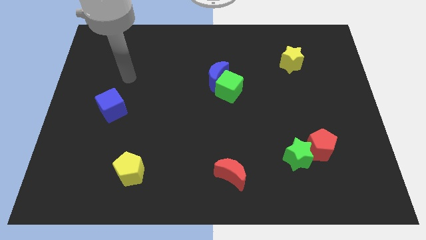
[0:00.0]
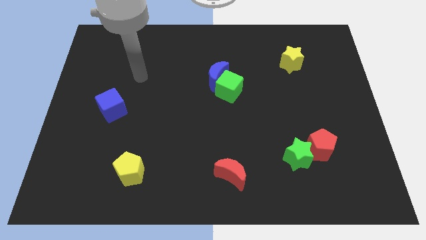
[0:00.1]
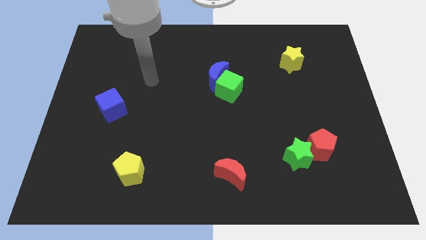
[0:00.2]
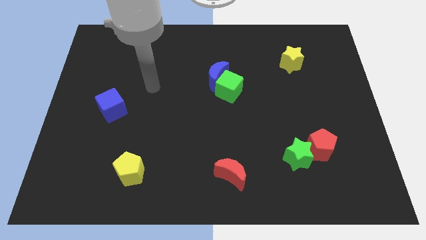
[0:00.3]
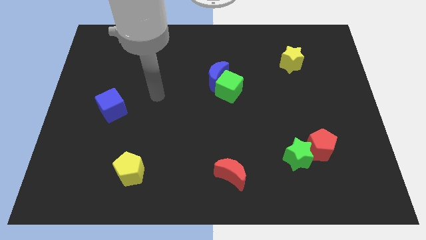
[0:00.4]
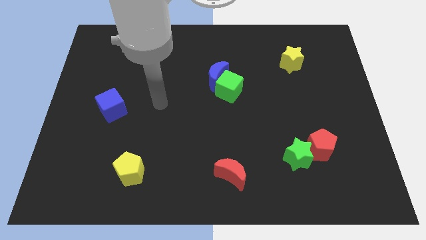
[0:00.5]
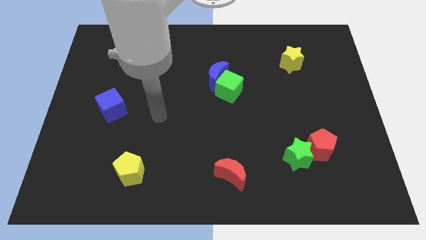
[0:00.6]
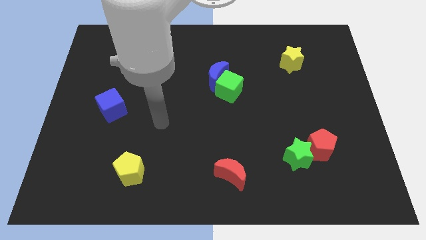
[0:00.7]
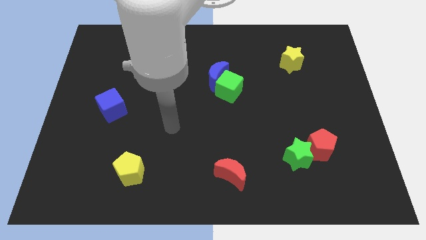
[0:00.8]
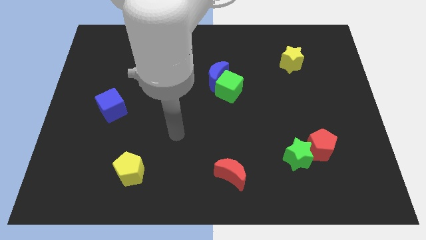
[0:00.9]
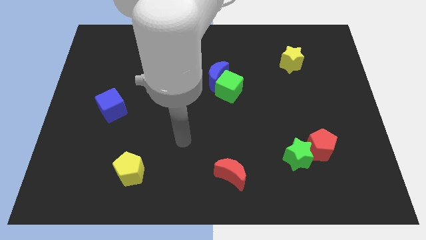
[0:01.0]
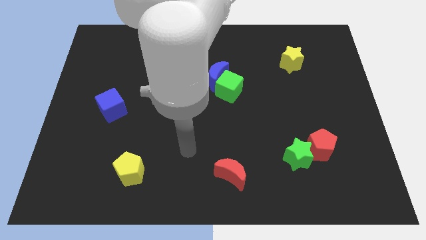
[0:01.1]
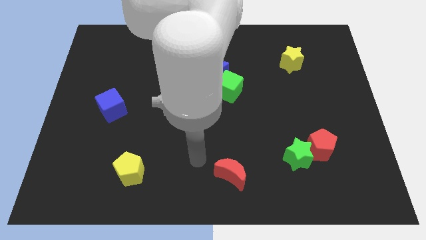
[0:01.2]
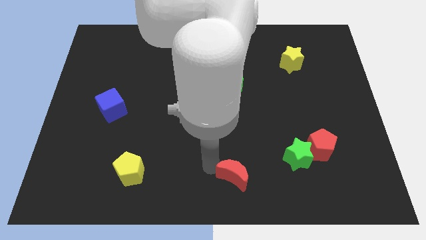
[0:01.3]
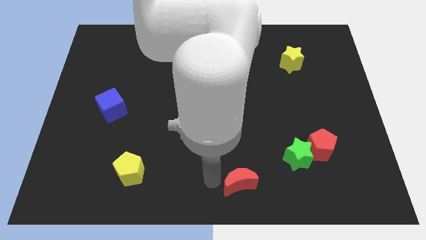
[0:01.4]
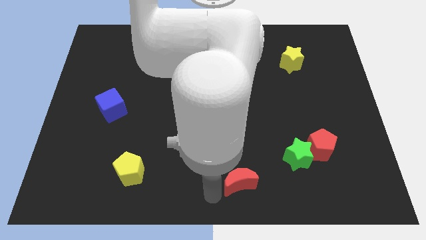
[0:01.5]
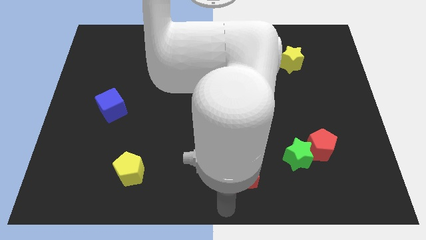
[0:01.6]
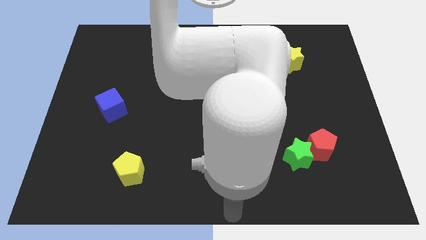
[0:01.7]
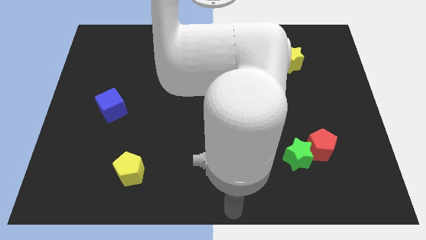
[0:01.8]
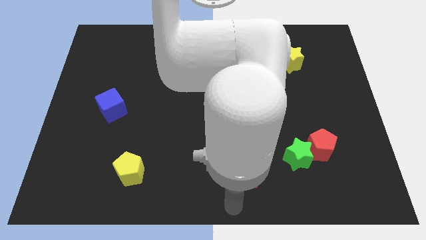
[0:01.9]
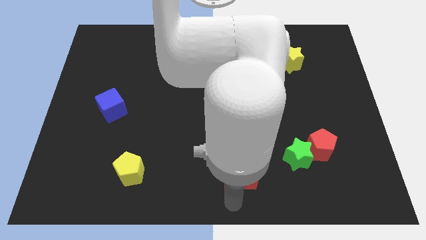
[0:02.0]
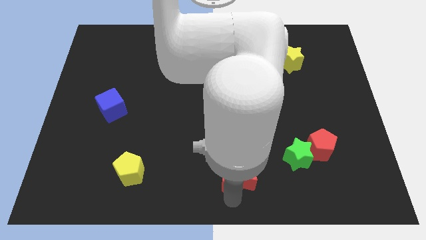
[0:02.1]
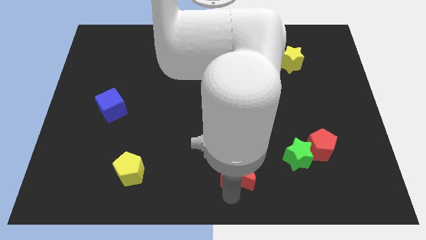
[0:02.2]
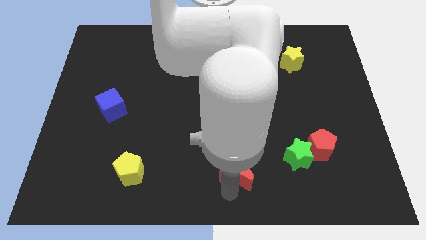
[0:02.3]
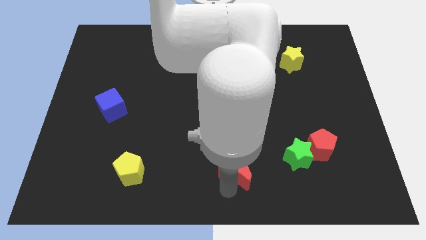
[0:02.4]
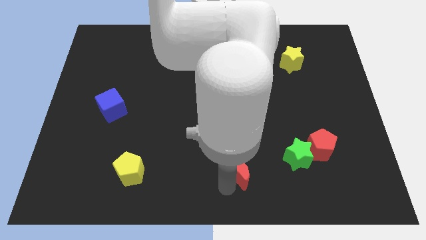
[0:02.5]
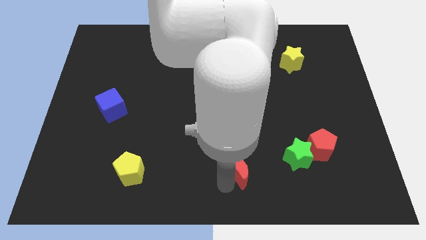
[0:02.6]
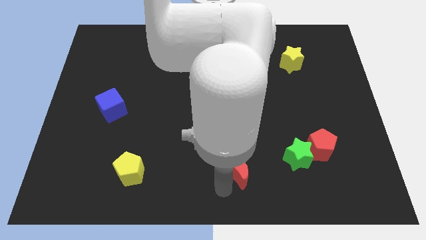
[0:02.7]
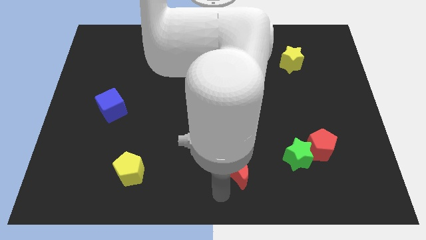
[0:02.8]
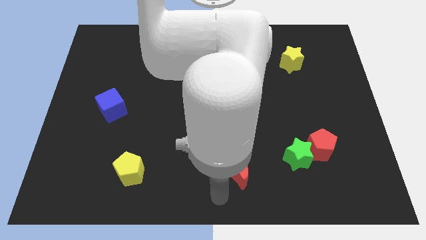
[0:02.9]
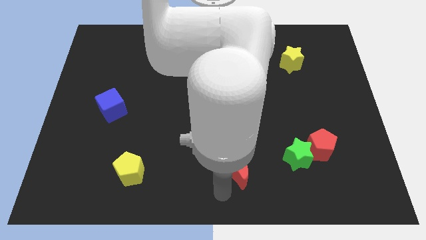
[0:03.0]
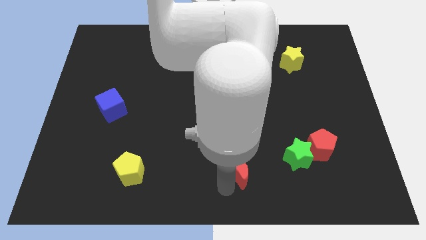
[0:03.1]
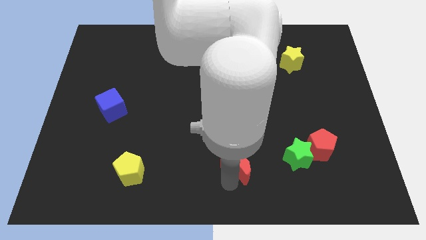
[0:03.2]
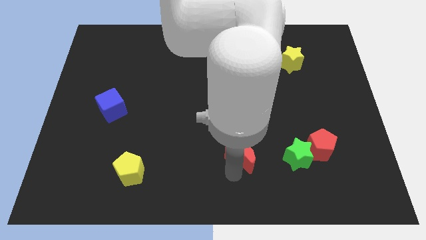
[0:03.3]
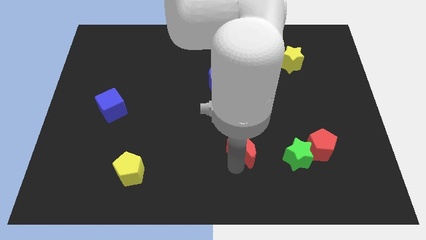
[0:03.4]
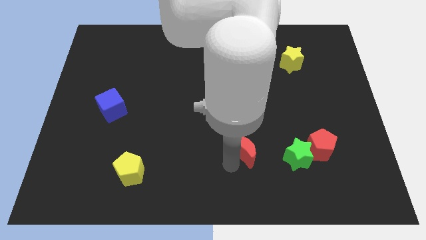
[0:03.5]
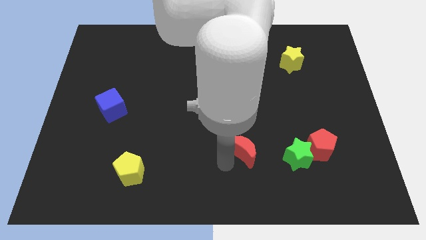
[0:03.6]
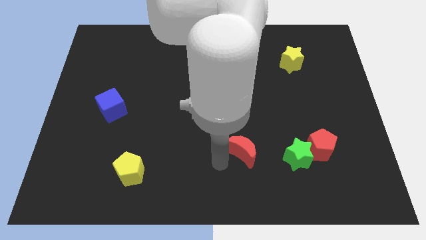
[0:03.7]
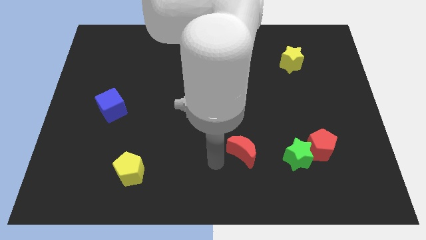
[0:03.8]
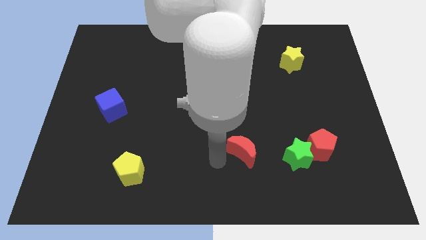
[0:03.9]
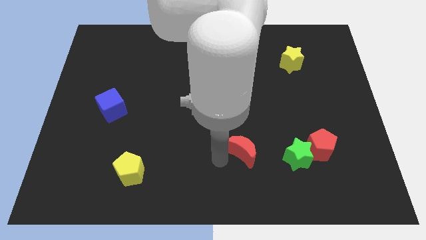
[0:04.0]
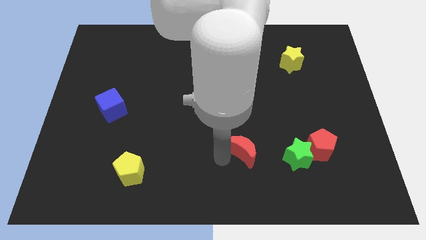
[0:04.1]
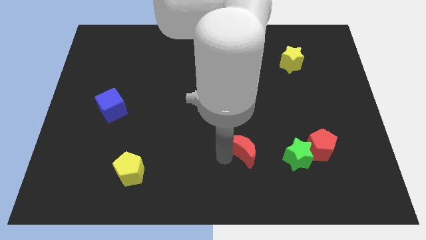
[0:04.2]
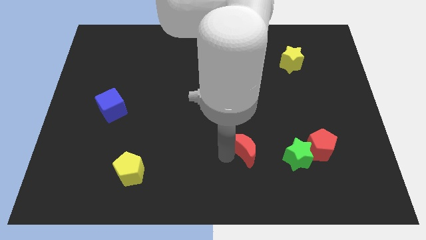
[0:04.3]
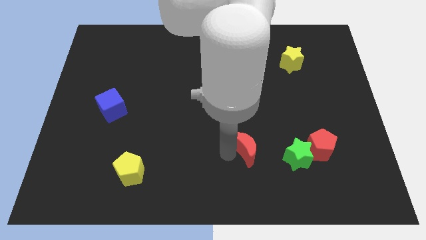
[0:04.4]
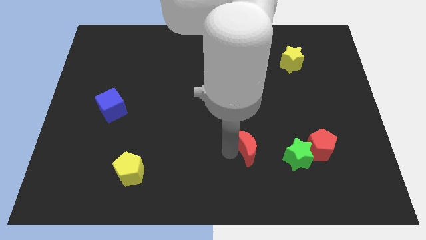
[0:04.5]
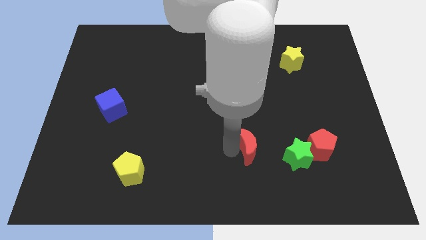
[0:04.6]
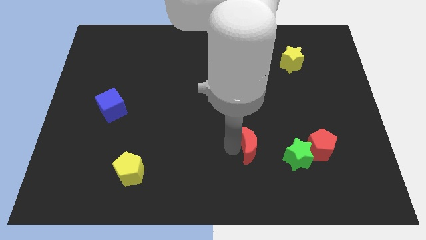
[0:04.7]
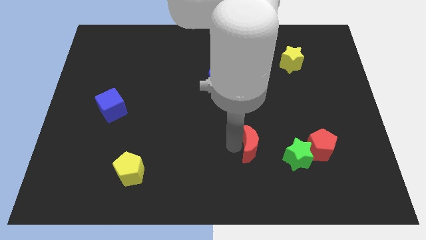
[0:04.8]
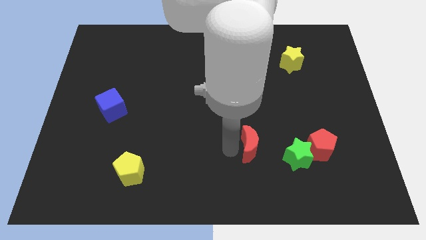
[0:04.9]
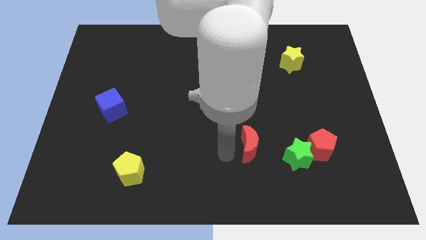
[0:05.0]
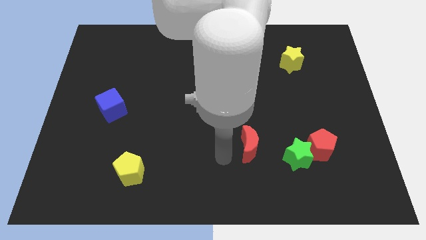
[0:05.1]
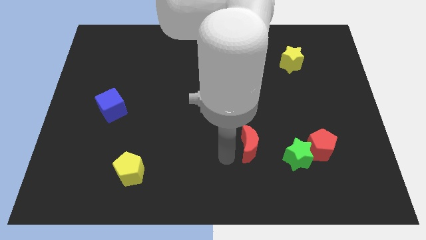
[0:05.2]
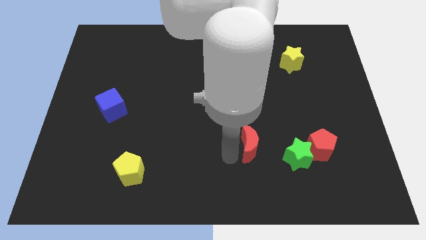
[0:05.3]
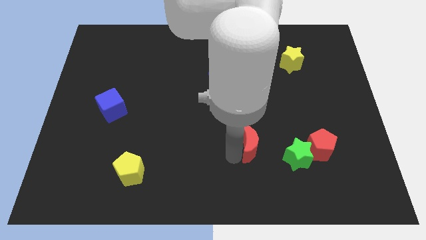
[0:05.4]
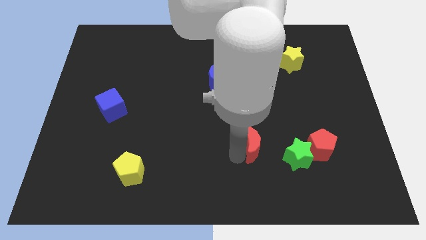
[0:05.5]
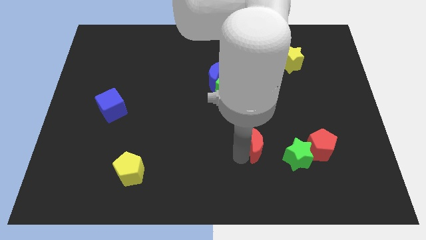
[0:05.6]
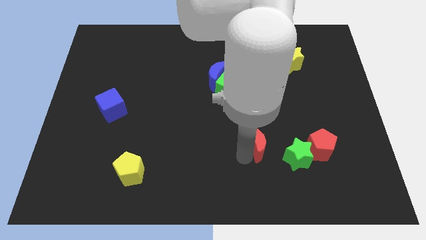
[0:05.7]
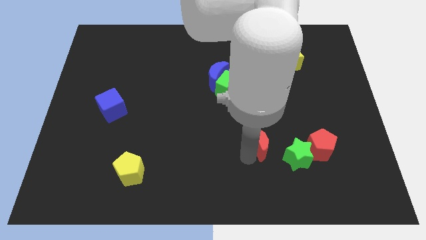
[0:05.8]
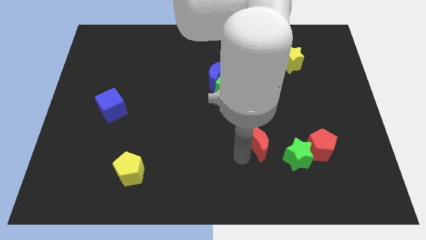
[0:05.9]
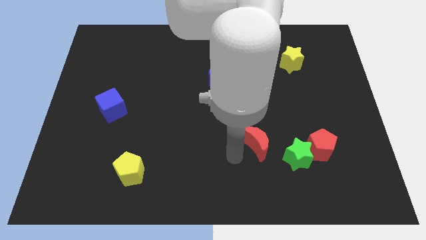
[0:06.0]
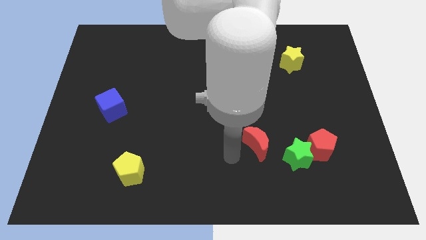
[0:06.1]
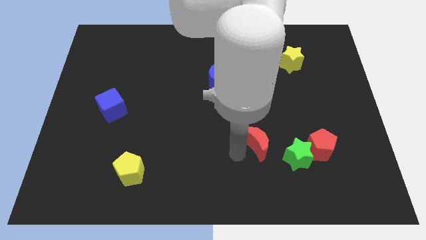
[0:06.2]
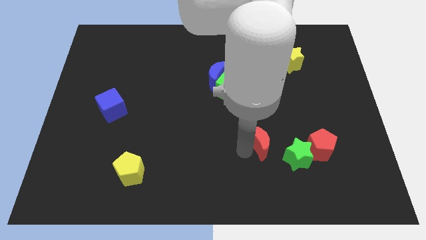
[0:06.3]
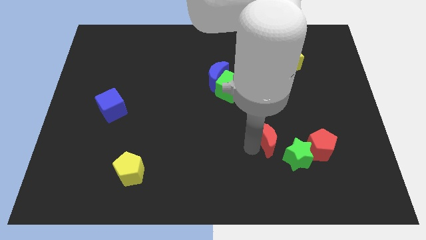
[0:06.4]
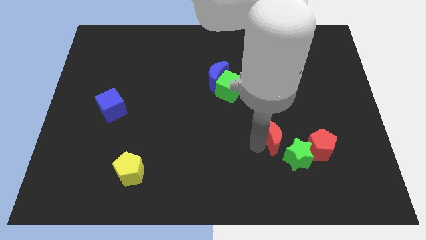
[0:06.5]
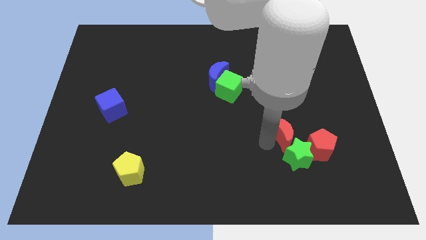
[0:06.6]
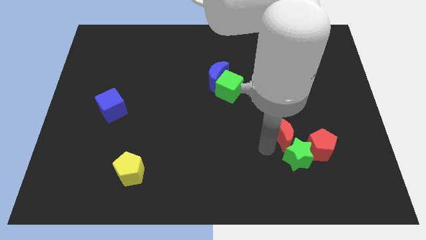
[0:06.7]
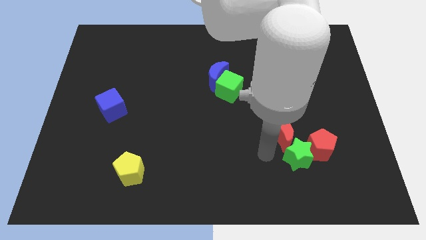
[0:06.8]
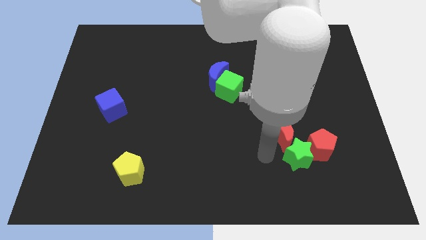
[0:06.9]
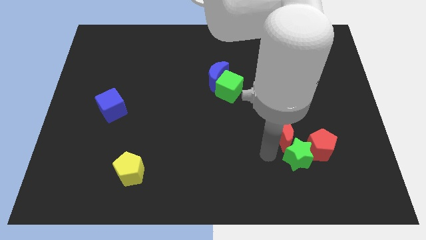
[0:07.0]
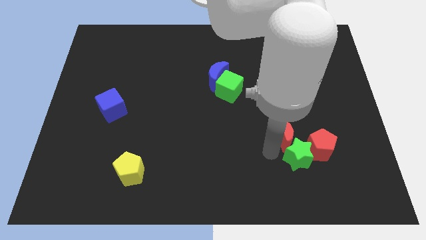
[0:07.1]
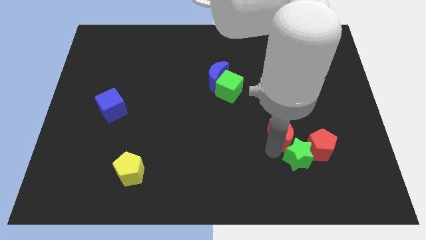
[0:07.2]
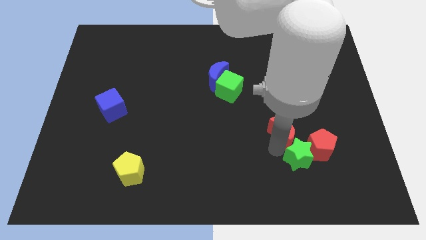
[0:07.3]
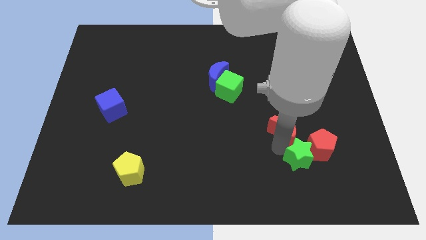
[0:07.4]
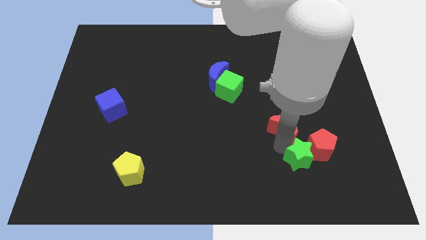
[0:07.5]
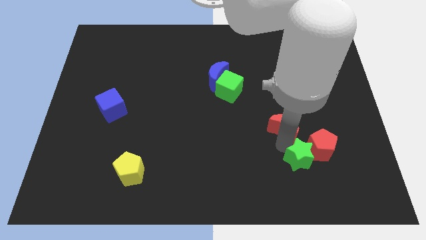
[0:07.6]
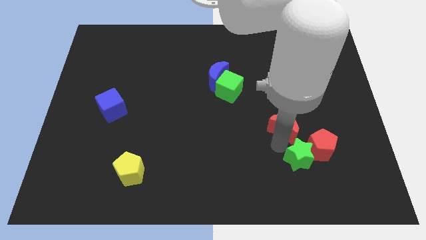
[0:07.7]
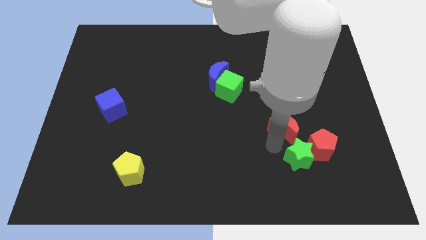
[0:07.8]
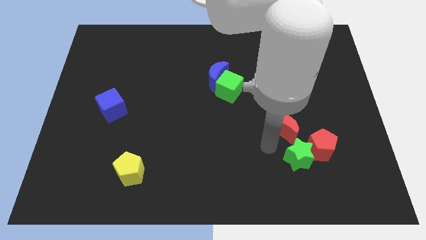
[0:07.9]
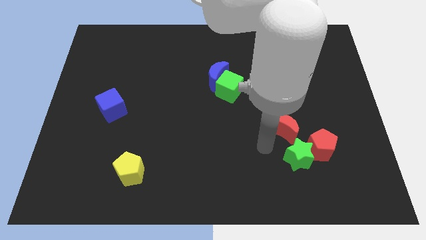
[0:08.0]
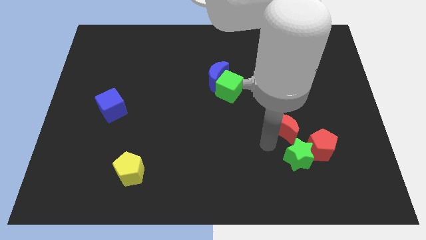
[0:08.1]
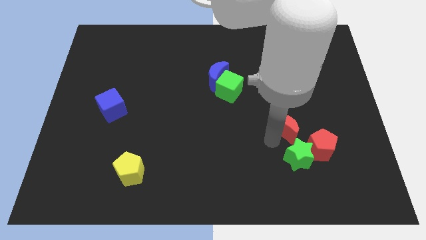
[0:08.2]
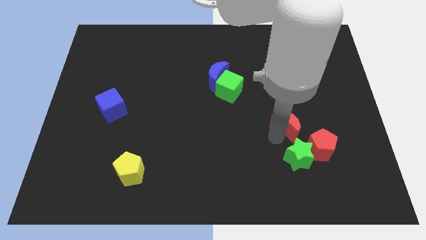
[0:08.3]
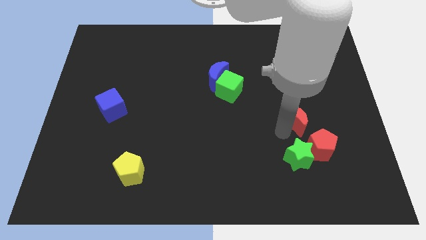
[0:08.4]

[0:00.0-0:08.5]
move the red moon upwards and then to the right
